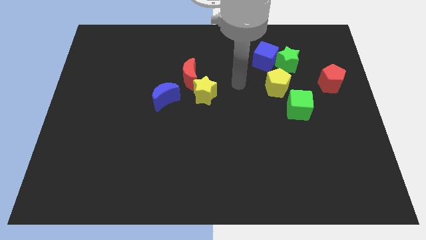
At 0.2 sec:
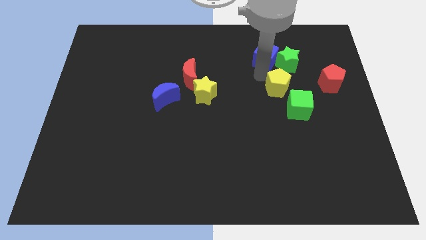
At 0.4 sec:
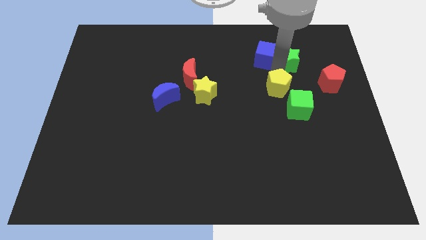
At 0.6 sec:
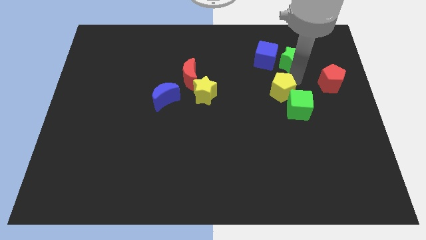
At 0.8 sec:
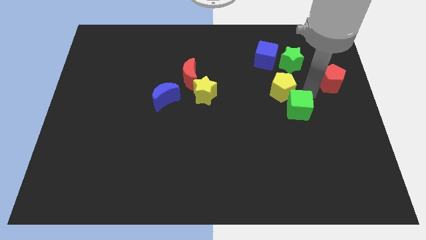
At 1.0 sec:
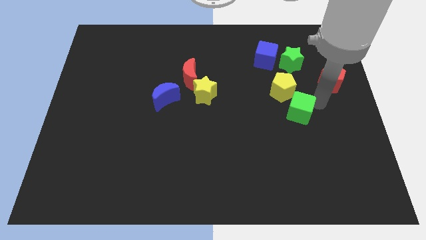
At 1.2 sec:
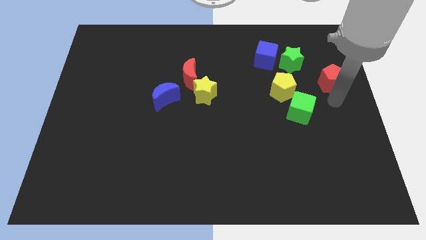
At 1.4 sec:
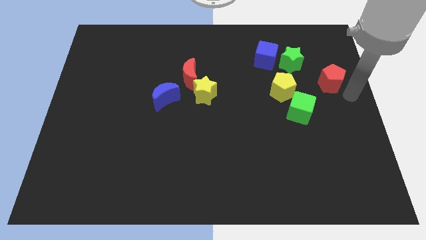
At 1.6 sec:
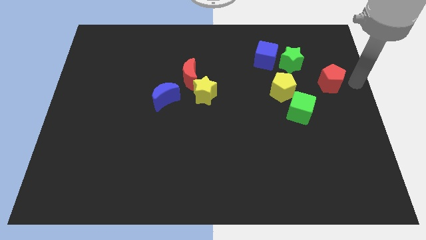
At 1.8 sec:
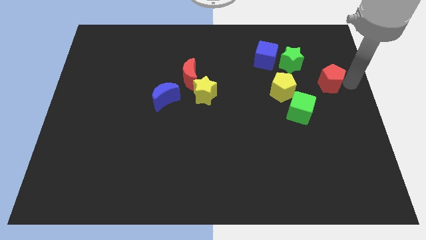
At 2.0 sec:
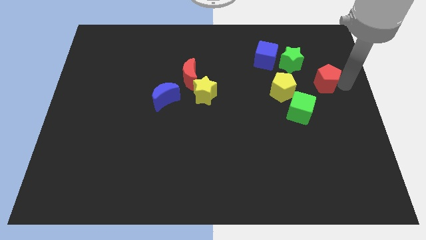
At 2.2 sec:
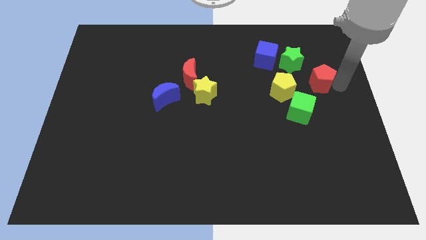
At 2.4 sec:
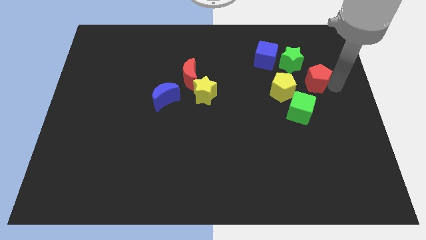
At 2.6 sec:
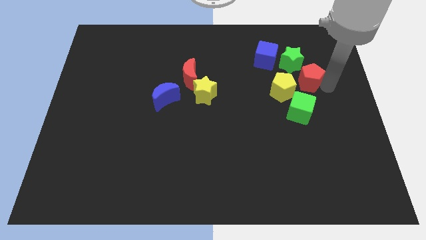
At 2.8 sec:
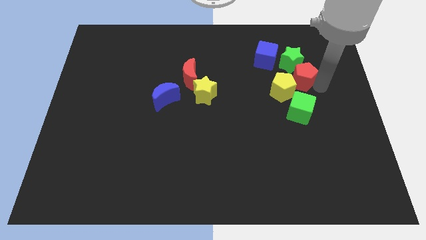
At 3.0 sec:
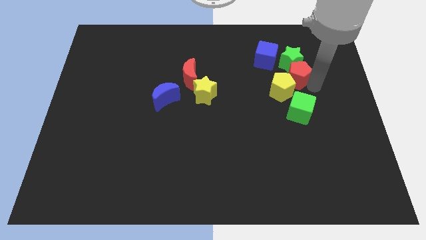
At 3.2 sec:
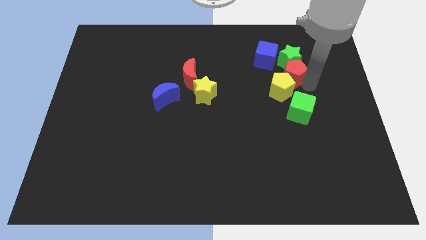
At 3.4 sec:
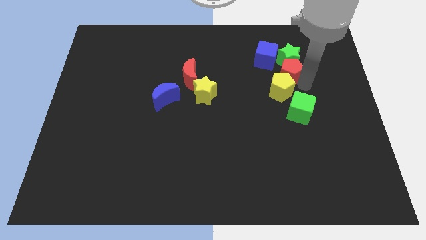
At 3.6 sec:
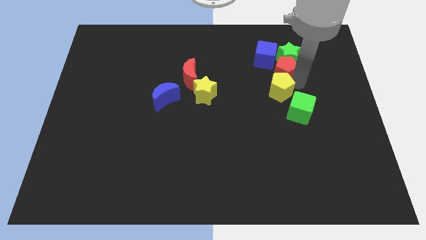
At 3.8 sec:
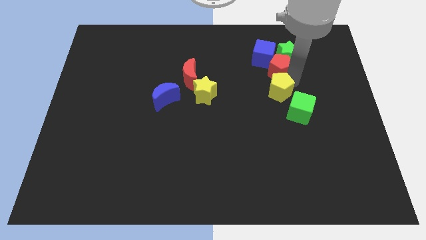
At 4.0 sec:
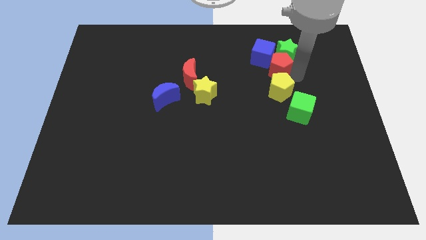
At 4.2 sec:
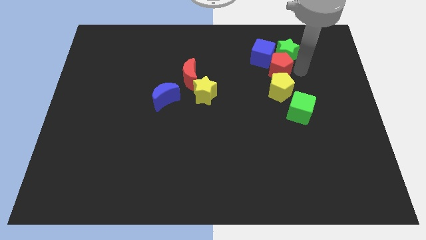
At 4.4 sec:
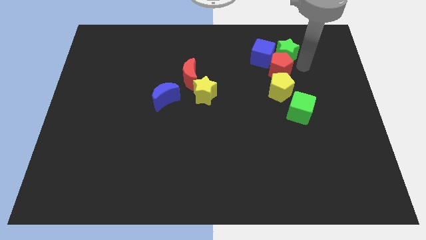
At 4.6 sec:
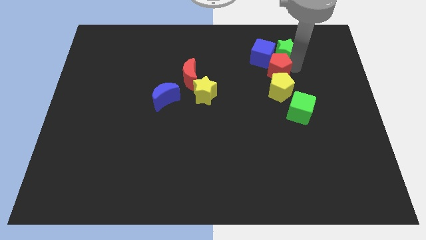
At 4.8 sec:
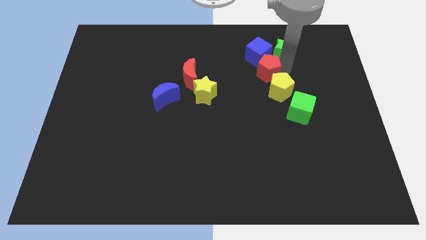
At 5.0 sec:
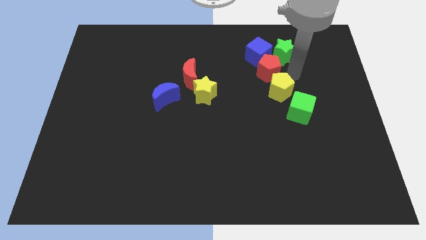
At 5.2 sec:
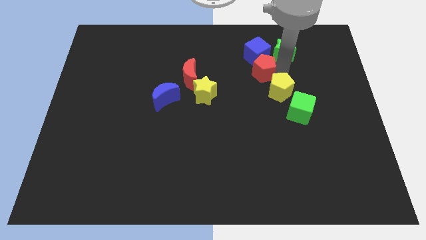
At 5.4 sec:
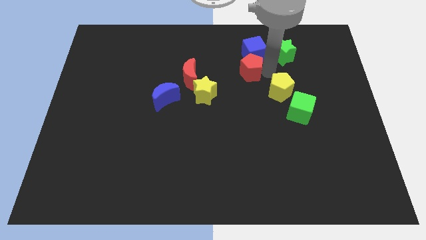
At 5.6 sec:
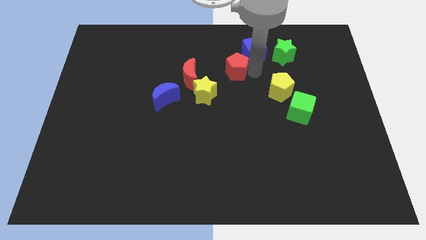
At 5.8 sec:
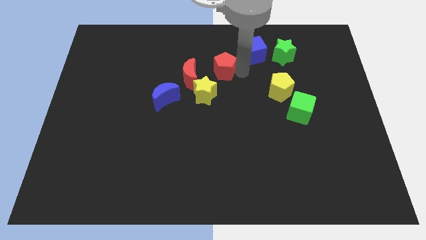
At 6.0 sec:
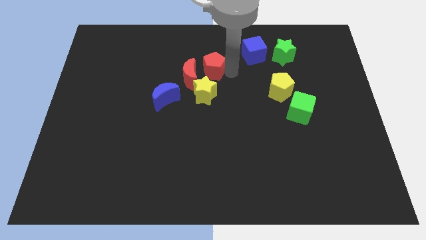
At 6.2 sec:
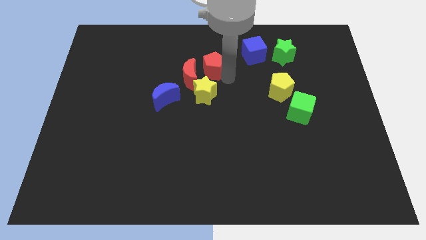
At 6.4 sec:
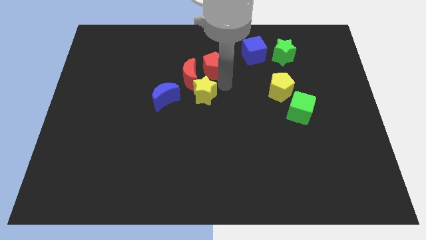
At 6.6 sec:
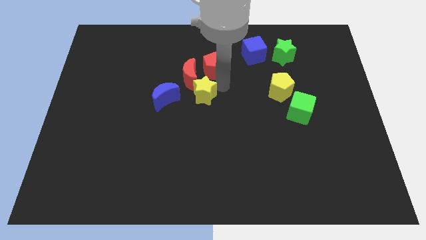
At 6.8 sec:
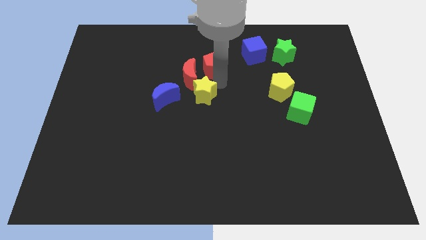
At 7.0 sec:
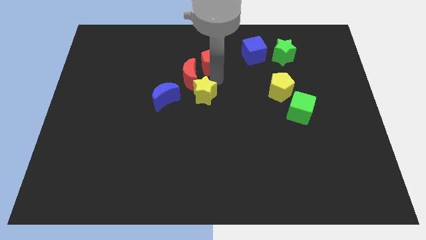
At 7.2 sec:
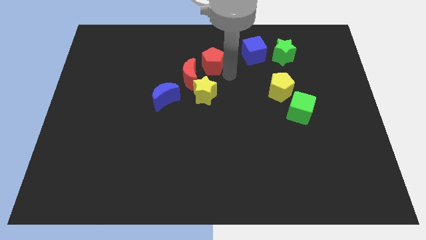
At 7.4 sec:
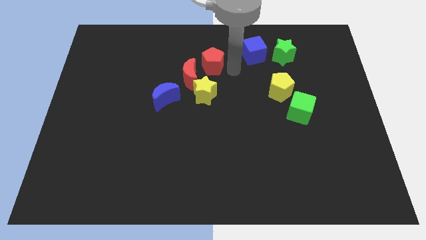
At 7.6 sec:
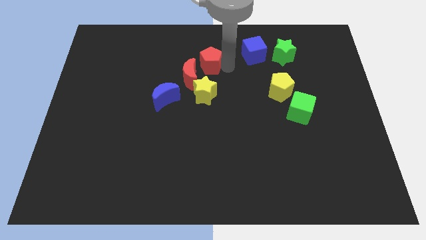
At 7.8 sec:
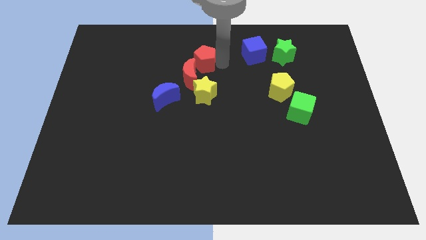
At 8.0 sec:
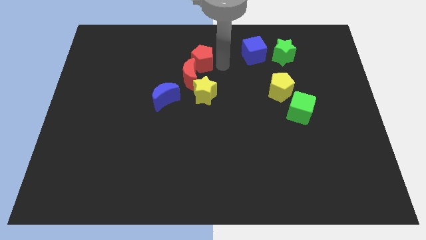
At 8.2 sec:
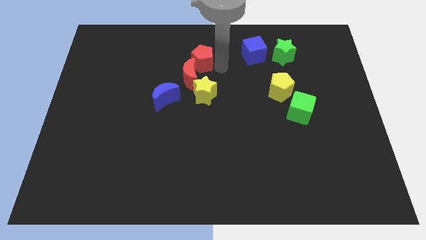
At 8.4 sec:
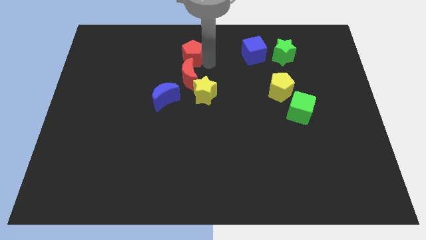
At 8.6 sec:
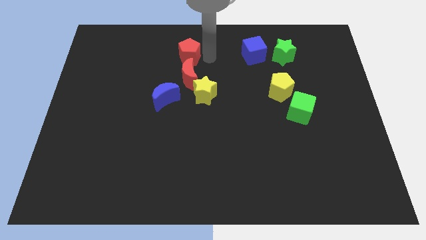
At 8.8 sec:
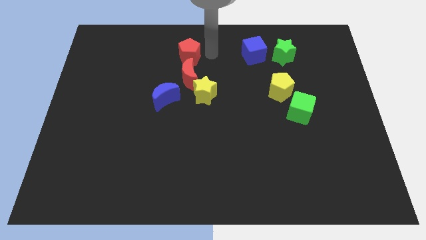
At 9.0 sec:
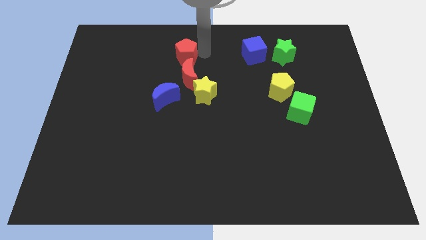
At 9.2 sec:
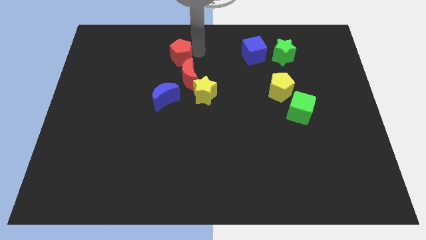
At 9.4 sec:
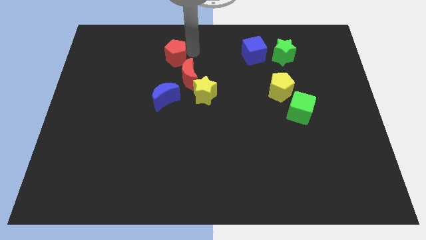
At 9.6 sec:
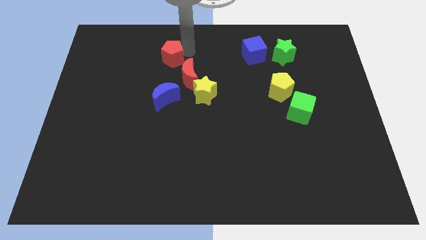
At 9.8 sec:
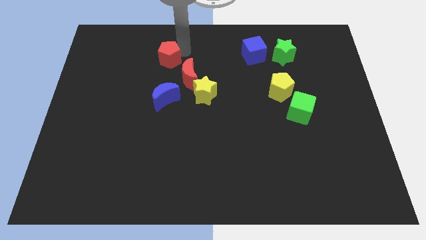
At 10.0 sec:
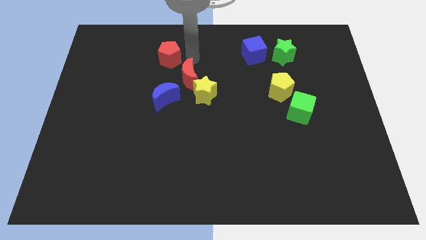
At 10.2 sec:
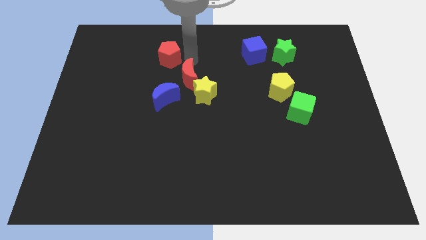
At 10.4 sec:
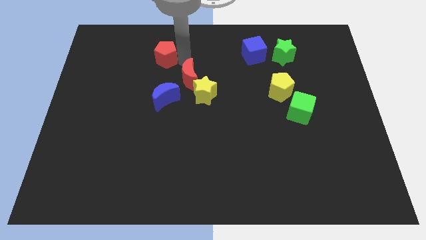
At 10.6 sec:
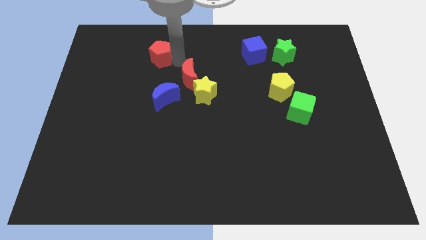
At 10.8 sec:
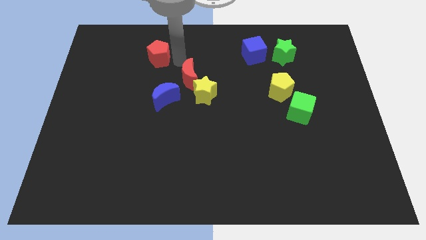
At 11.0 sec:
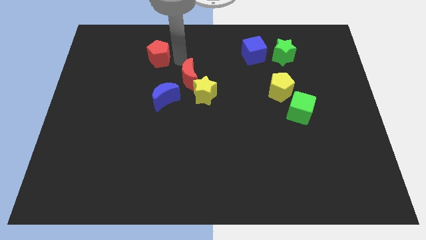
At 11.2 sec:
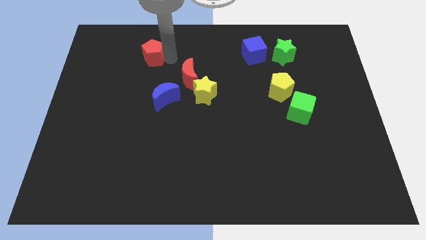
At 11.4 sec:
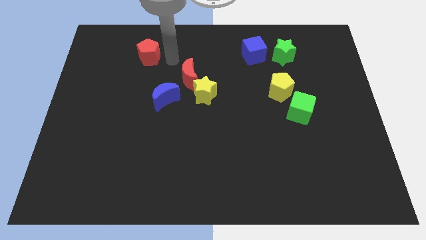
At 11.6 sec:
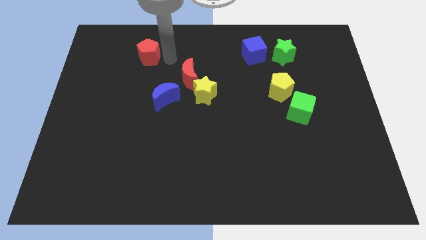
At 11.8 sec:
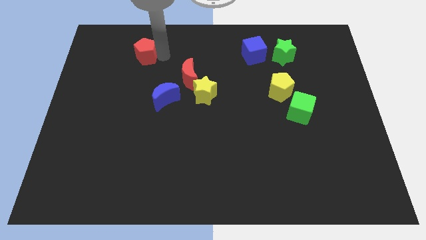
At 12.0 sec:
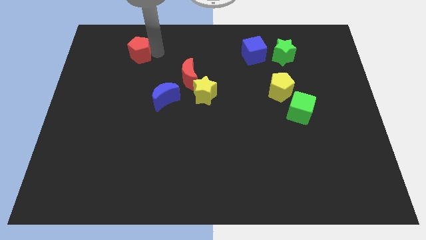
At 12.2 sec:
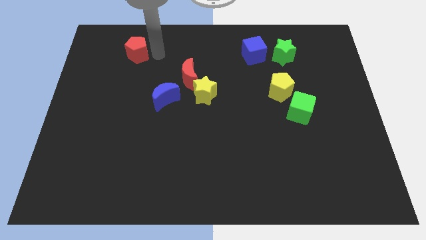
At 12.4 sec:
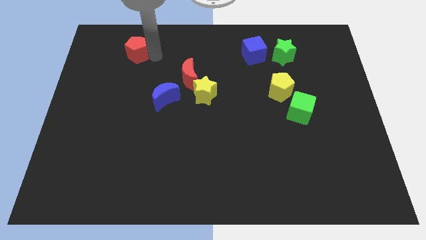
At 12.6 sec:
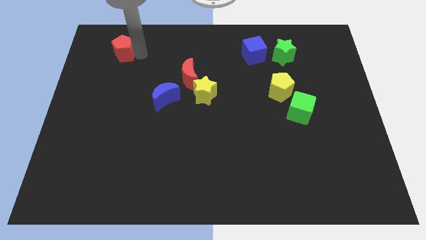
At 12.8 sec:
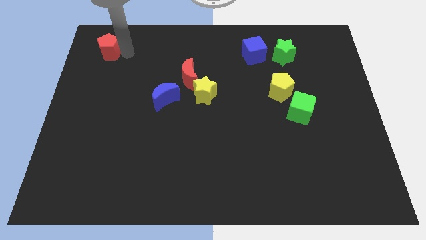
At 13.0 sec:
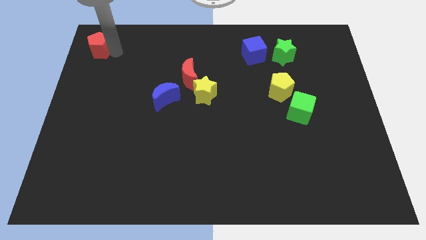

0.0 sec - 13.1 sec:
push the red pentagon to the top left of the board
